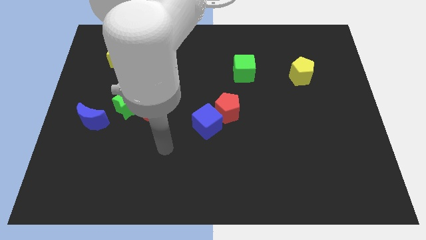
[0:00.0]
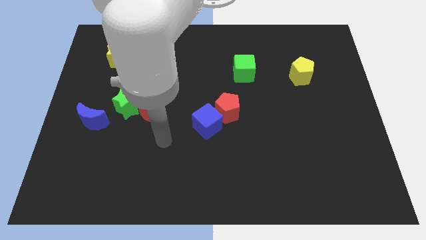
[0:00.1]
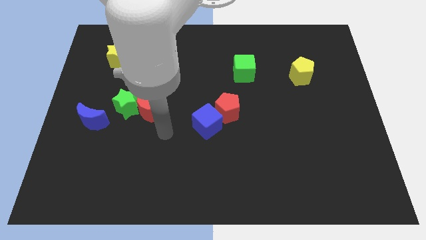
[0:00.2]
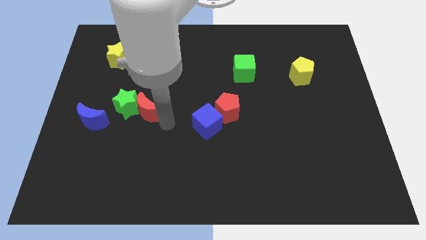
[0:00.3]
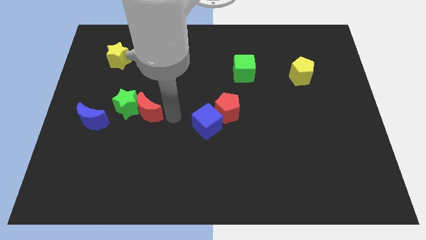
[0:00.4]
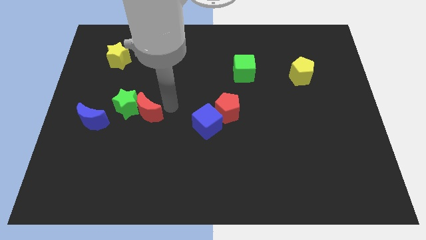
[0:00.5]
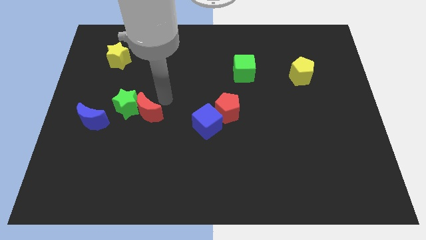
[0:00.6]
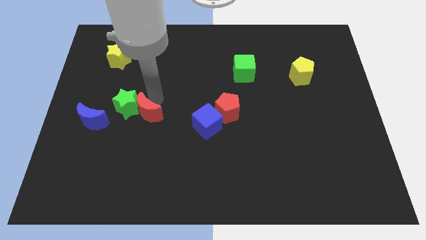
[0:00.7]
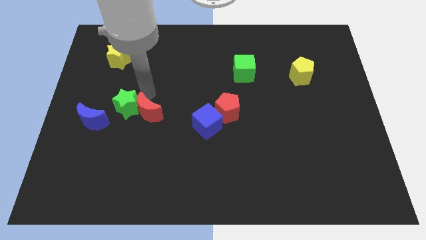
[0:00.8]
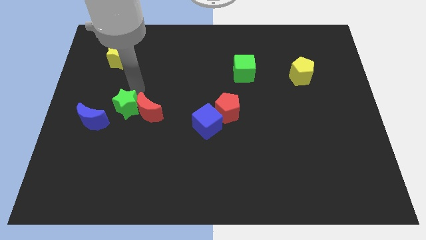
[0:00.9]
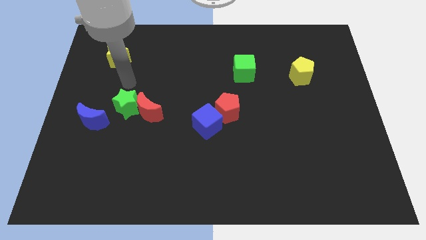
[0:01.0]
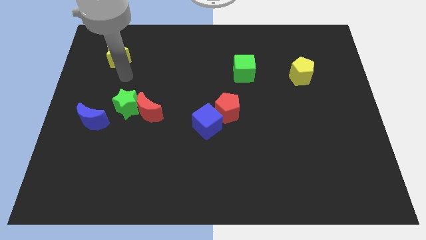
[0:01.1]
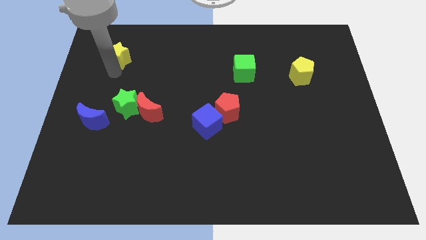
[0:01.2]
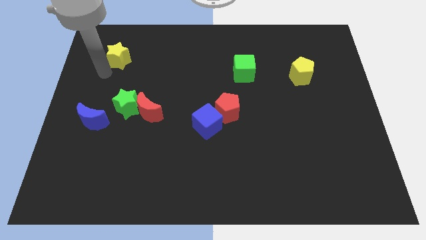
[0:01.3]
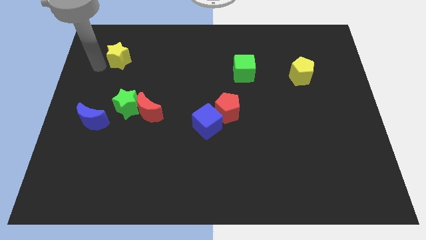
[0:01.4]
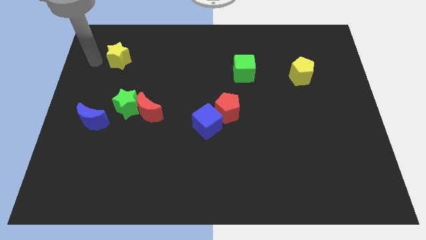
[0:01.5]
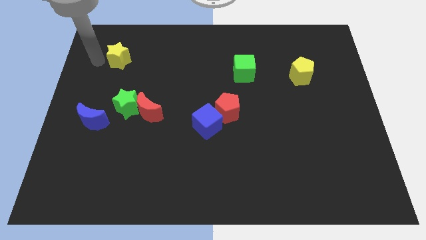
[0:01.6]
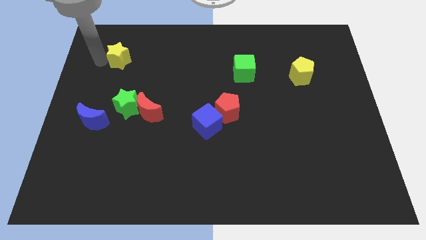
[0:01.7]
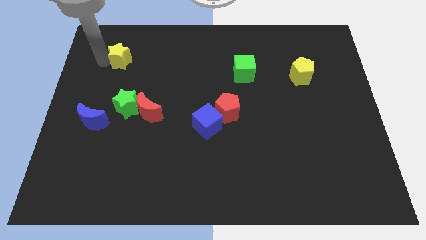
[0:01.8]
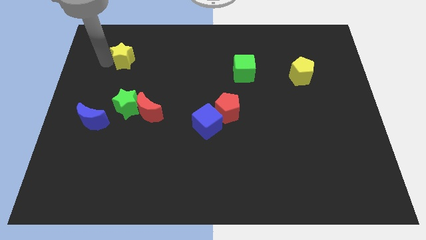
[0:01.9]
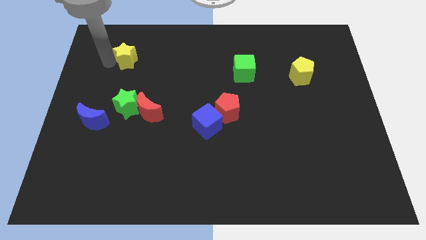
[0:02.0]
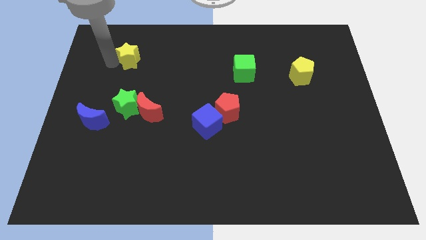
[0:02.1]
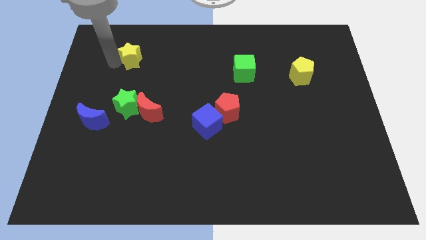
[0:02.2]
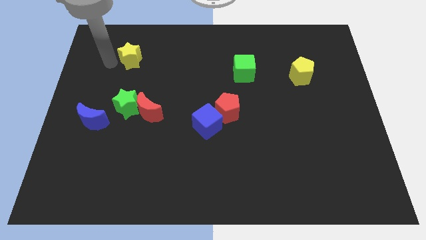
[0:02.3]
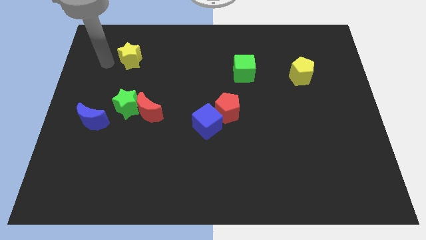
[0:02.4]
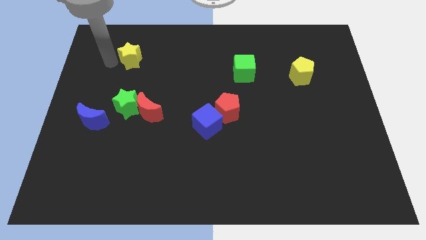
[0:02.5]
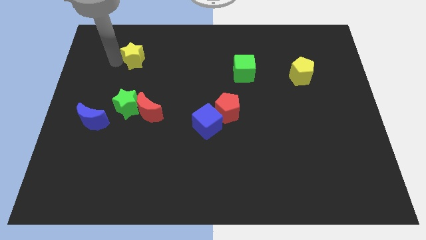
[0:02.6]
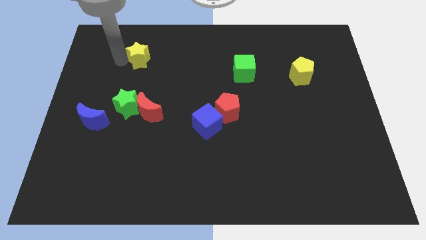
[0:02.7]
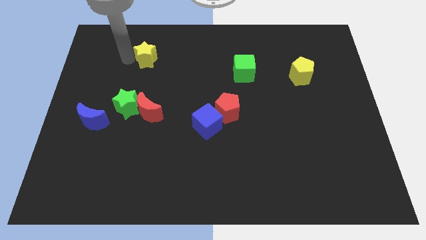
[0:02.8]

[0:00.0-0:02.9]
slightly move the yellow star to the right

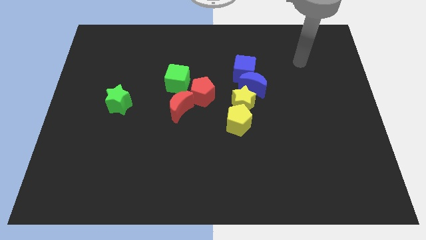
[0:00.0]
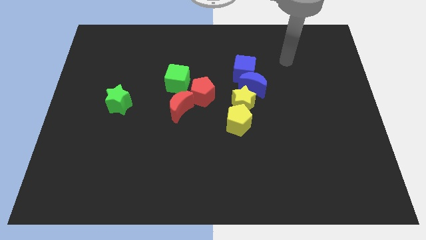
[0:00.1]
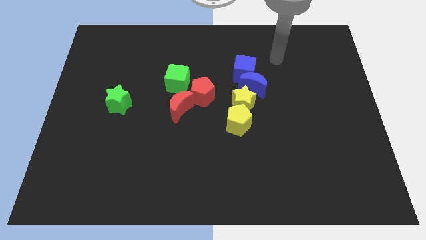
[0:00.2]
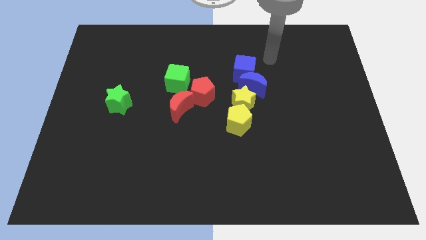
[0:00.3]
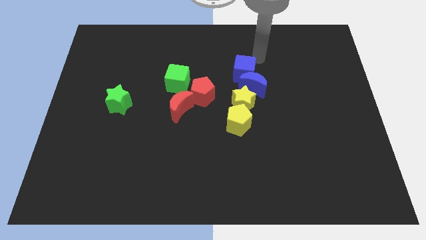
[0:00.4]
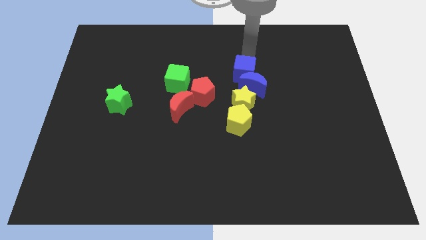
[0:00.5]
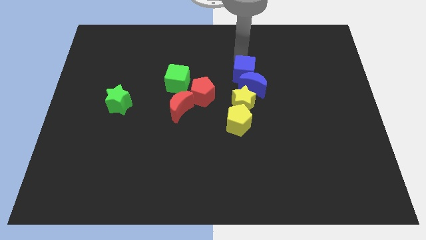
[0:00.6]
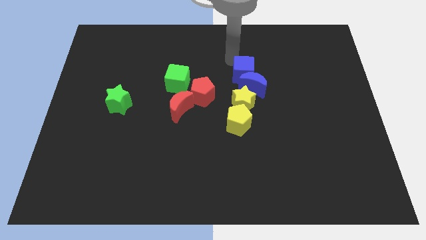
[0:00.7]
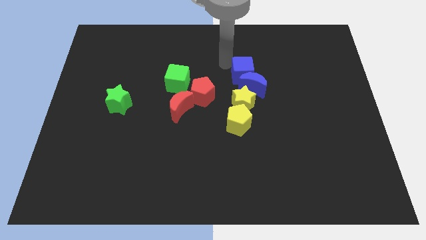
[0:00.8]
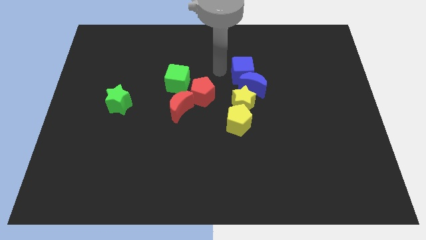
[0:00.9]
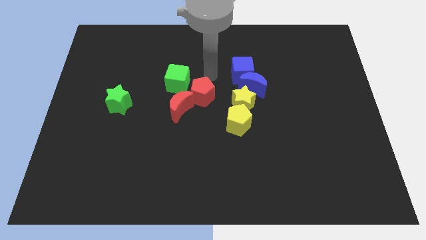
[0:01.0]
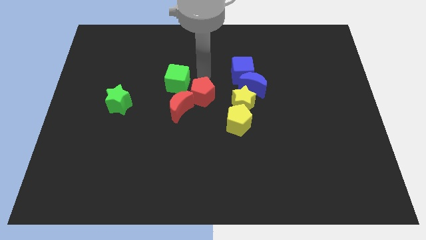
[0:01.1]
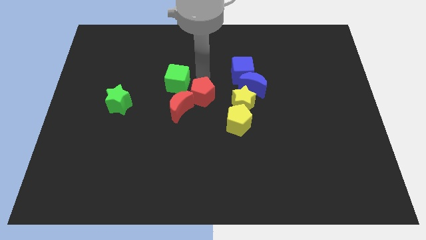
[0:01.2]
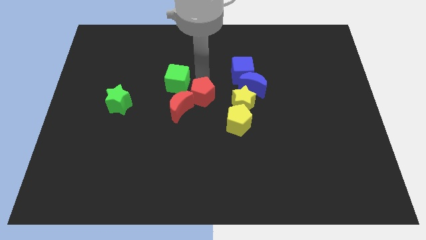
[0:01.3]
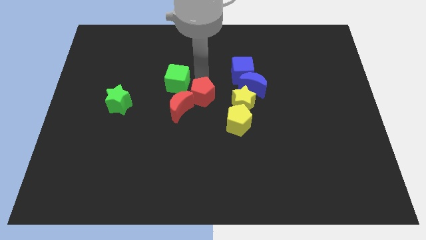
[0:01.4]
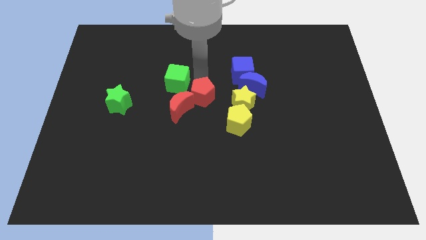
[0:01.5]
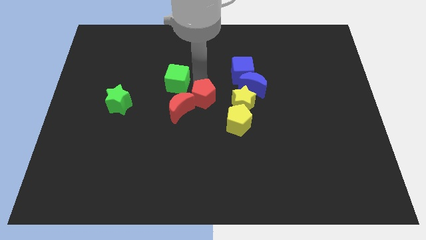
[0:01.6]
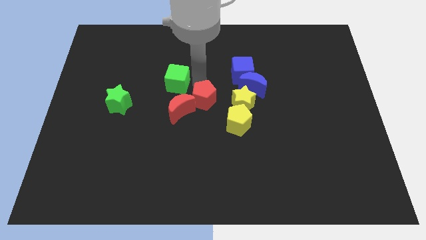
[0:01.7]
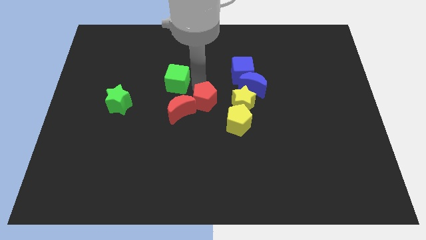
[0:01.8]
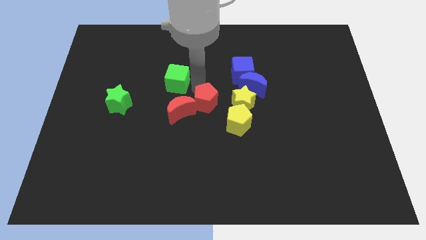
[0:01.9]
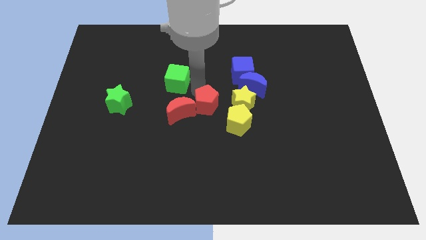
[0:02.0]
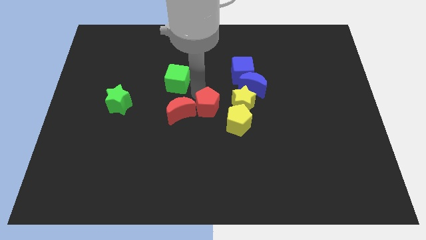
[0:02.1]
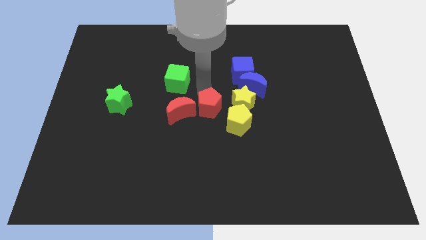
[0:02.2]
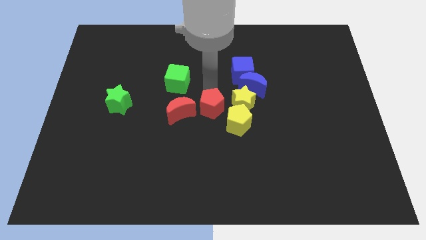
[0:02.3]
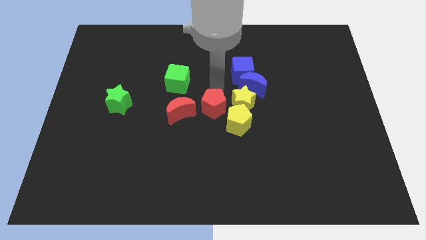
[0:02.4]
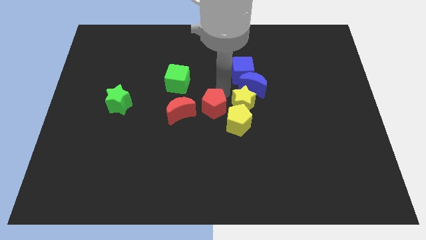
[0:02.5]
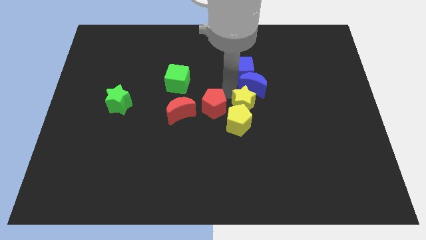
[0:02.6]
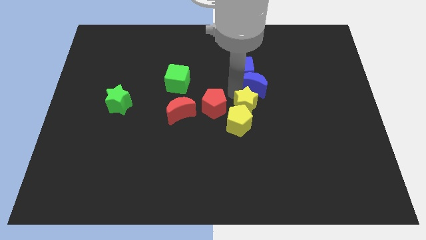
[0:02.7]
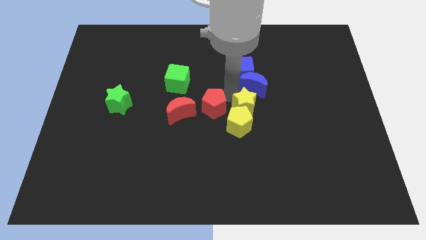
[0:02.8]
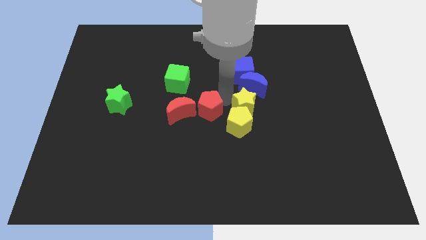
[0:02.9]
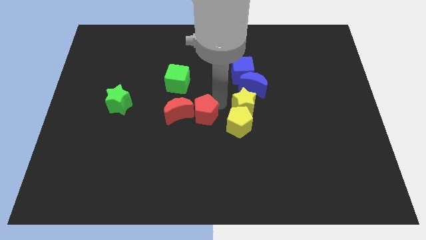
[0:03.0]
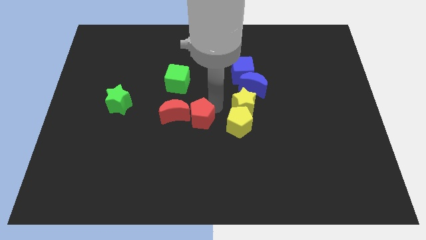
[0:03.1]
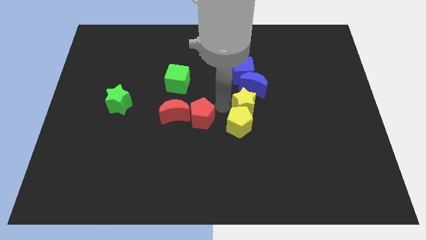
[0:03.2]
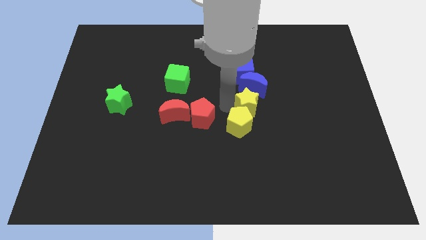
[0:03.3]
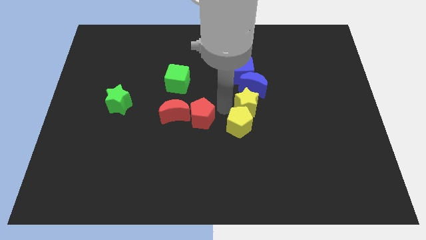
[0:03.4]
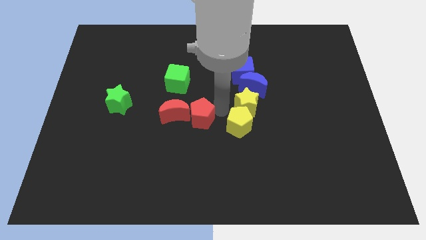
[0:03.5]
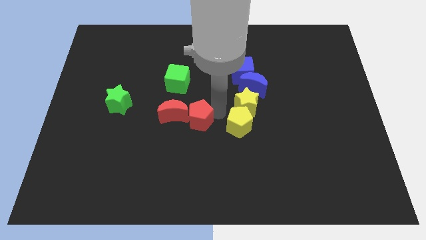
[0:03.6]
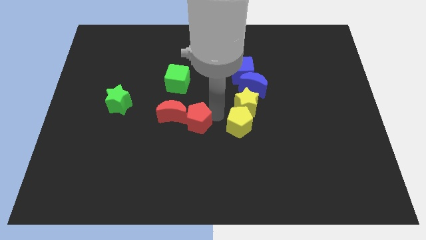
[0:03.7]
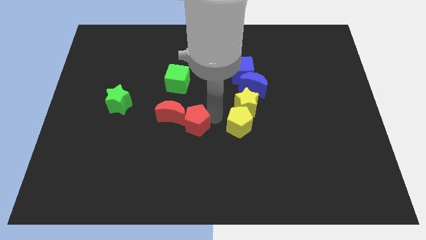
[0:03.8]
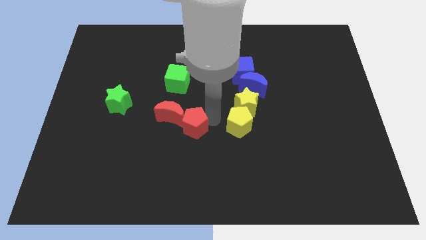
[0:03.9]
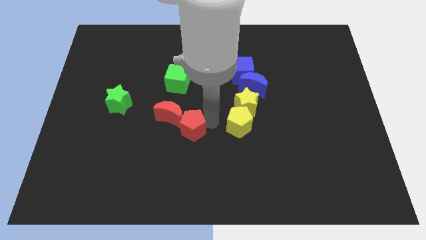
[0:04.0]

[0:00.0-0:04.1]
push the red pentagon slightly down and left

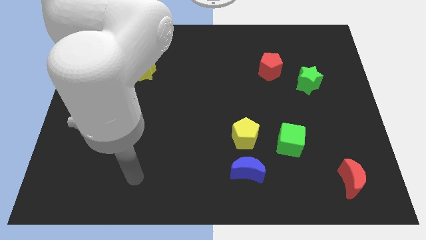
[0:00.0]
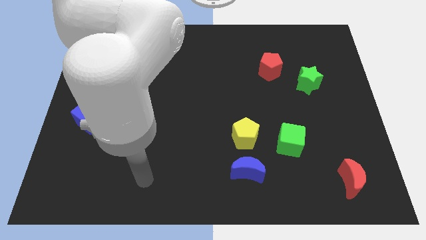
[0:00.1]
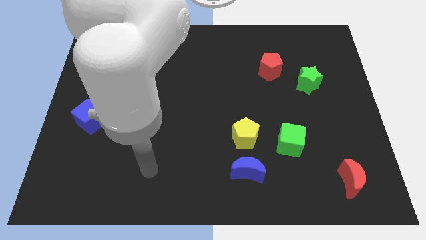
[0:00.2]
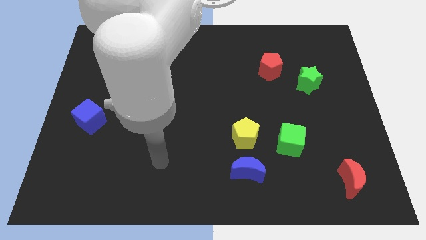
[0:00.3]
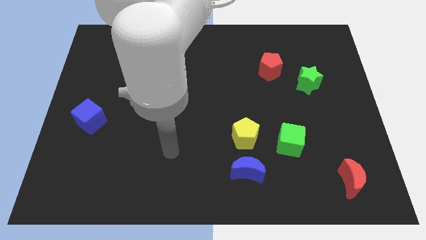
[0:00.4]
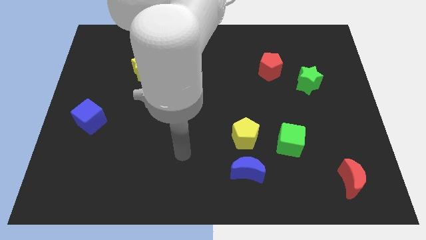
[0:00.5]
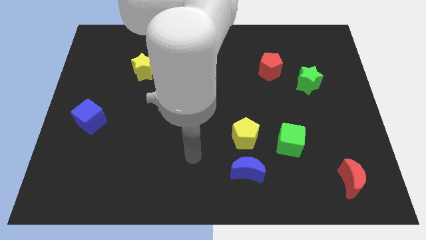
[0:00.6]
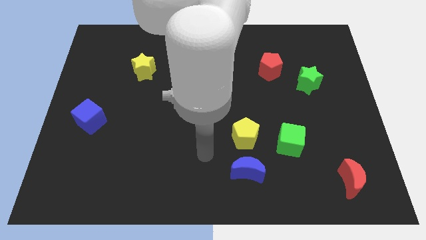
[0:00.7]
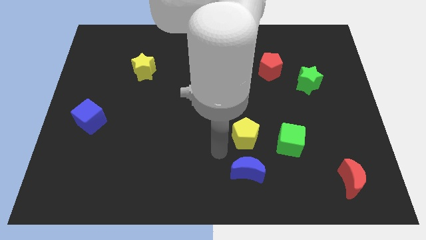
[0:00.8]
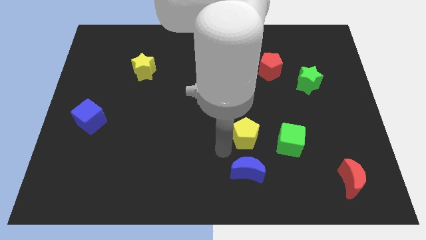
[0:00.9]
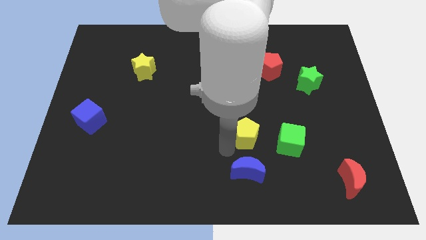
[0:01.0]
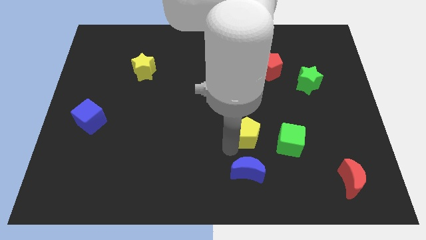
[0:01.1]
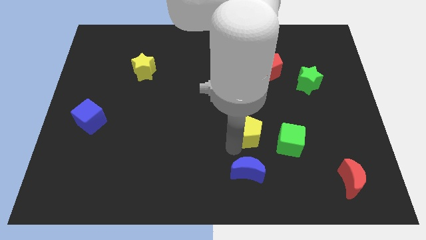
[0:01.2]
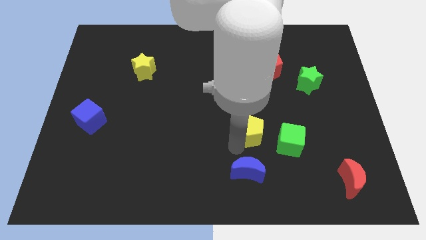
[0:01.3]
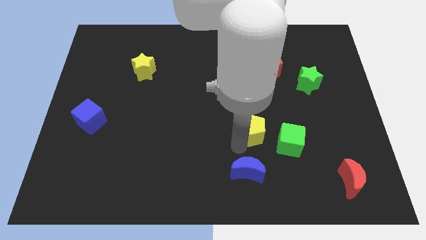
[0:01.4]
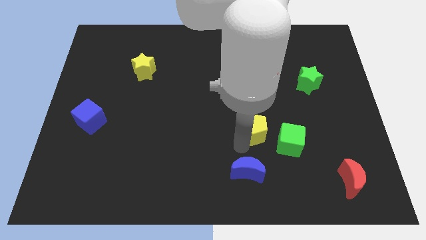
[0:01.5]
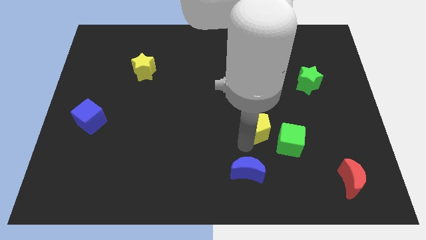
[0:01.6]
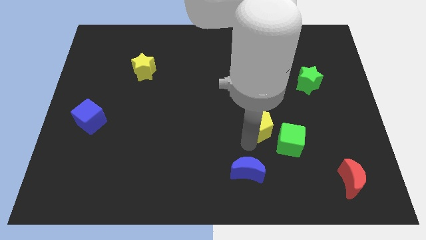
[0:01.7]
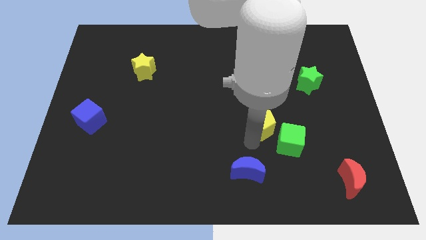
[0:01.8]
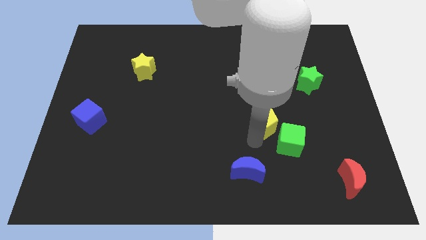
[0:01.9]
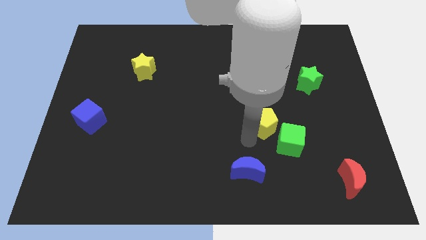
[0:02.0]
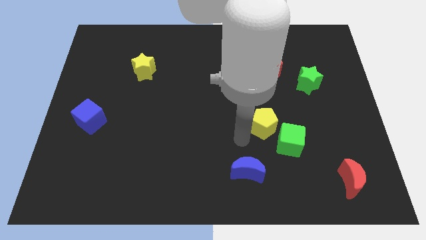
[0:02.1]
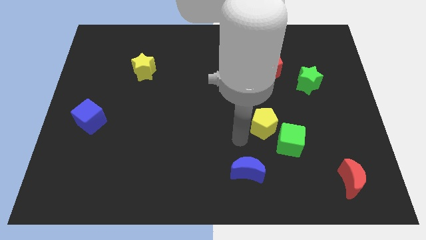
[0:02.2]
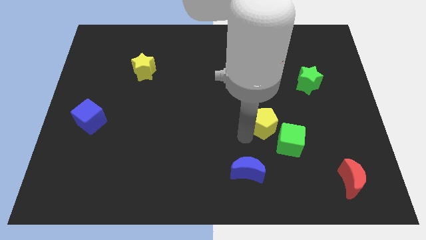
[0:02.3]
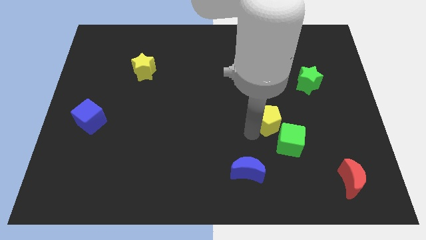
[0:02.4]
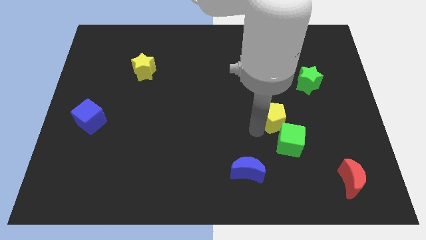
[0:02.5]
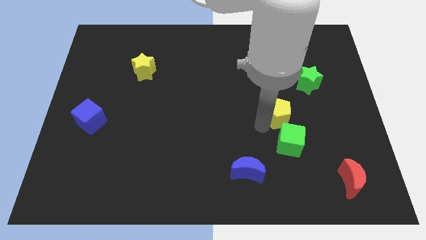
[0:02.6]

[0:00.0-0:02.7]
slightly push the yellow pentagon to the right
